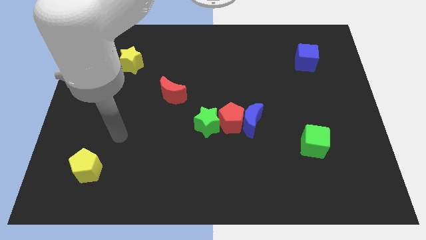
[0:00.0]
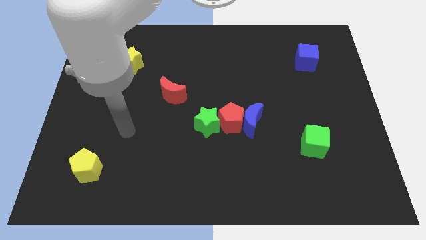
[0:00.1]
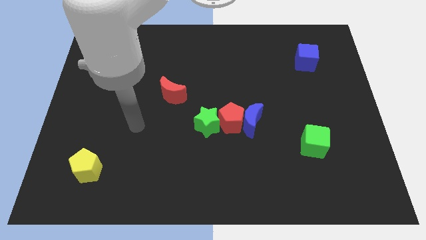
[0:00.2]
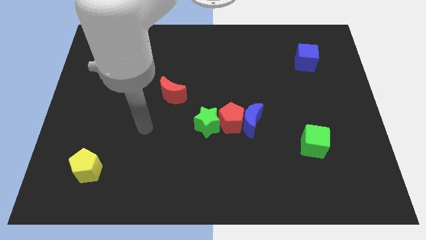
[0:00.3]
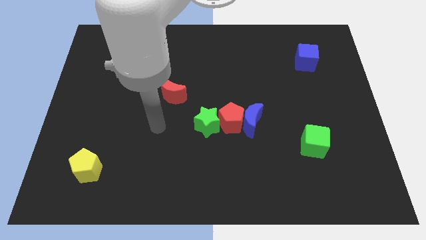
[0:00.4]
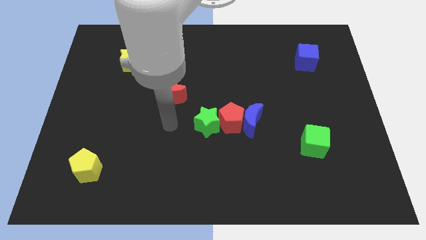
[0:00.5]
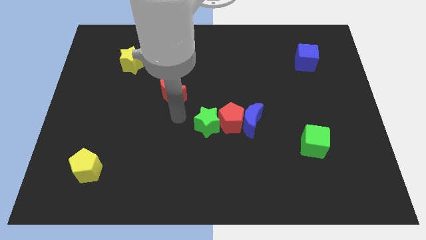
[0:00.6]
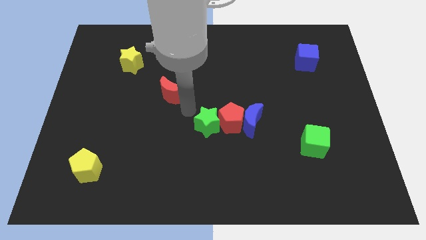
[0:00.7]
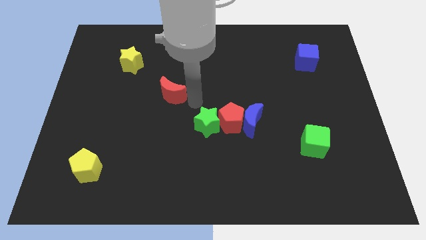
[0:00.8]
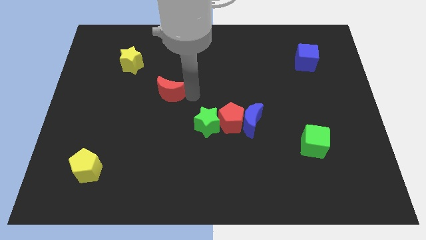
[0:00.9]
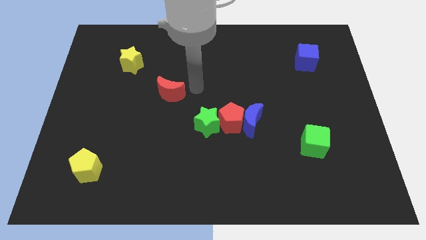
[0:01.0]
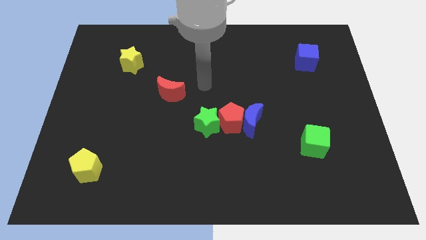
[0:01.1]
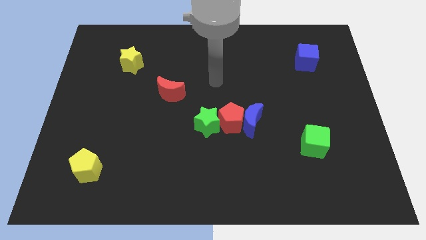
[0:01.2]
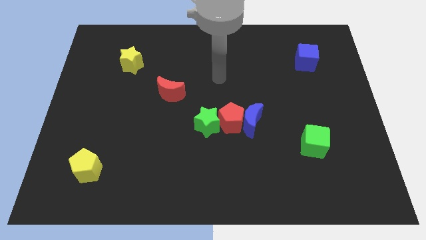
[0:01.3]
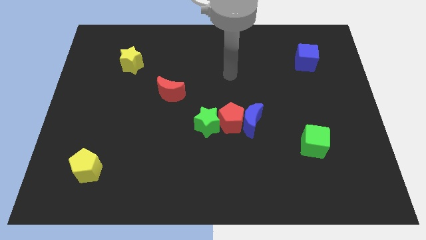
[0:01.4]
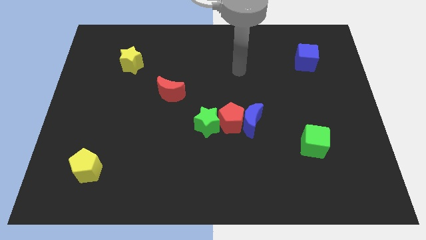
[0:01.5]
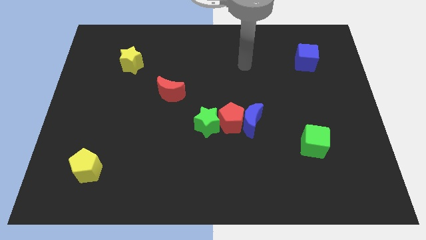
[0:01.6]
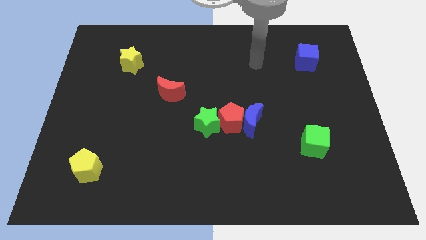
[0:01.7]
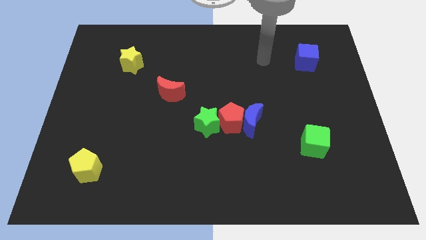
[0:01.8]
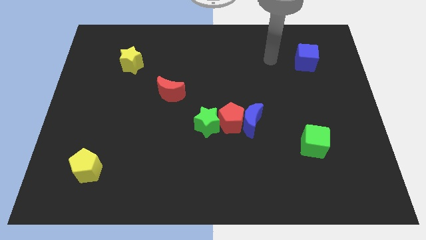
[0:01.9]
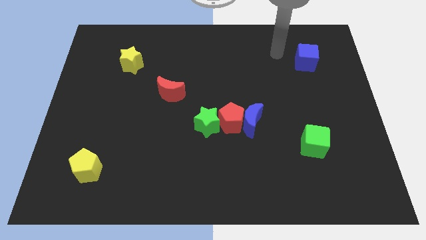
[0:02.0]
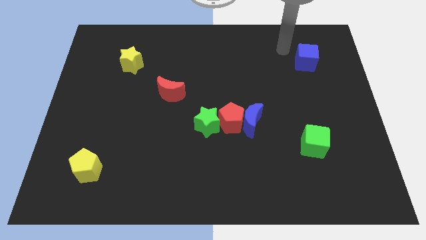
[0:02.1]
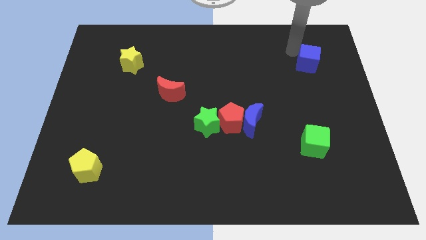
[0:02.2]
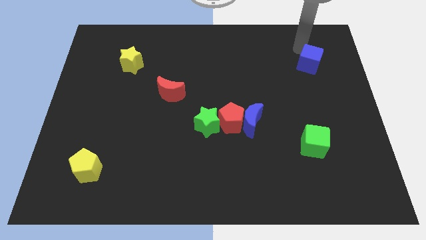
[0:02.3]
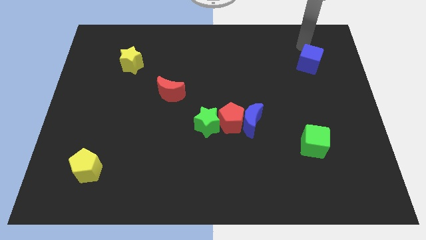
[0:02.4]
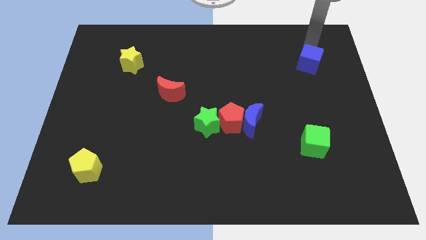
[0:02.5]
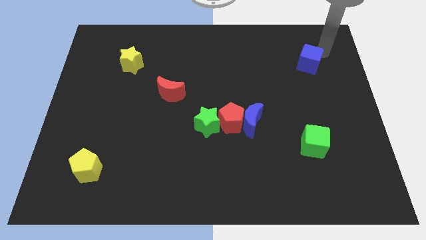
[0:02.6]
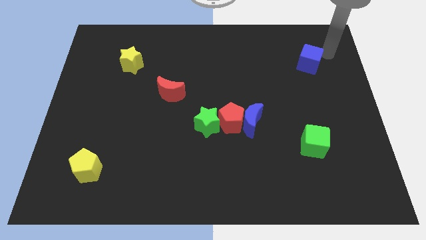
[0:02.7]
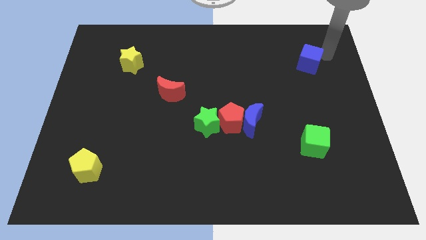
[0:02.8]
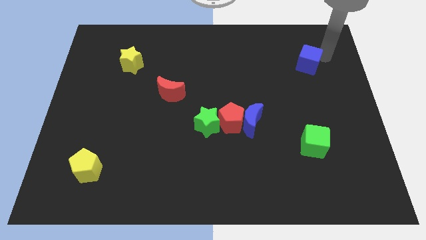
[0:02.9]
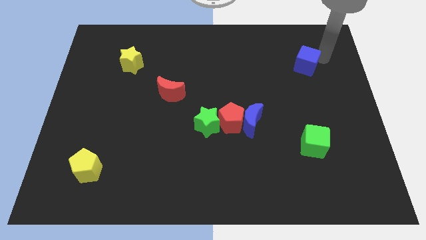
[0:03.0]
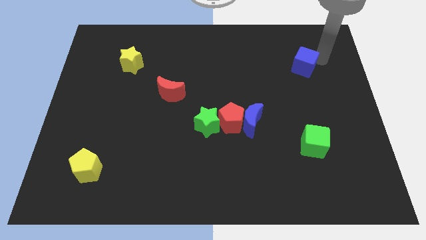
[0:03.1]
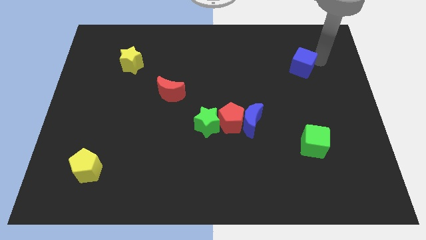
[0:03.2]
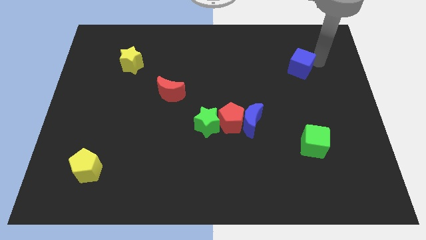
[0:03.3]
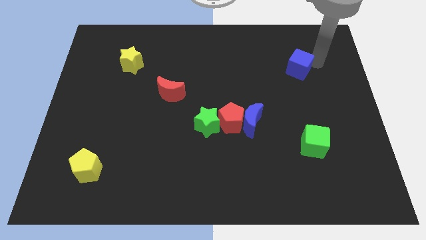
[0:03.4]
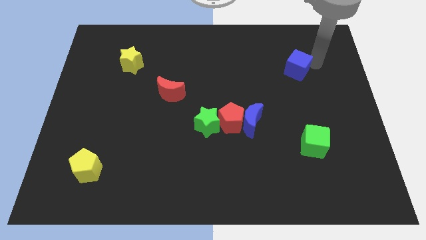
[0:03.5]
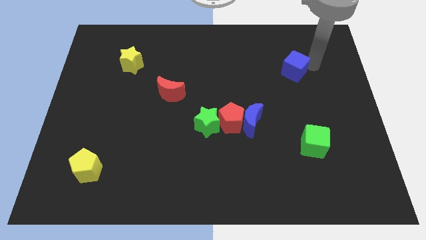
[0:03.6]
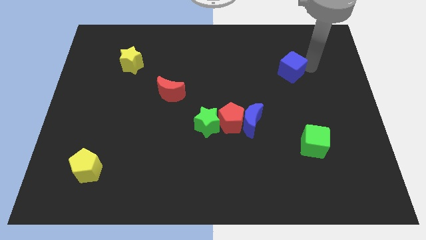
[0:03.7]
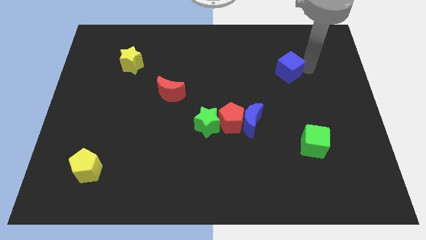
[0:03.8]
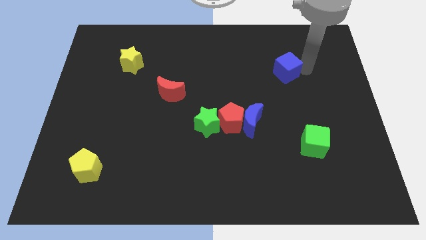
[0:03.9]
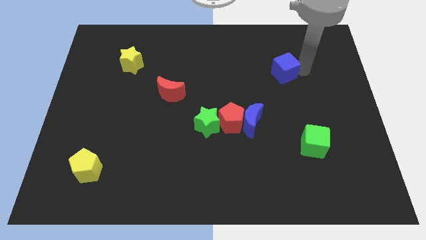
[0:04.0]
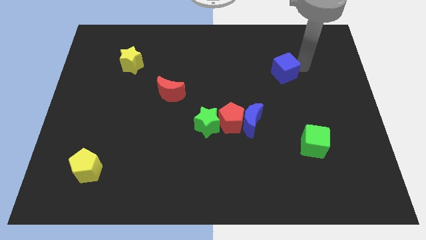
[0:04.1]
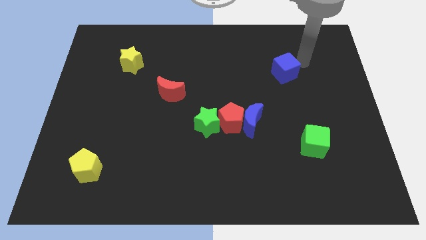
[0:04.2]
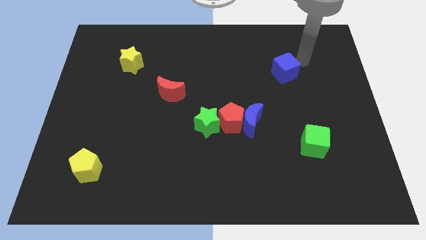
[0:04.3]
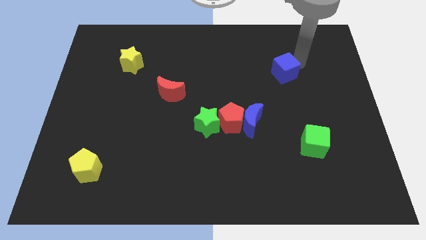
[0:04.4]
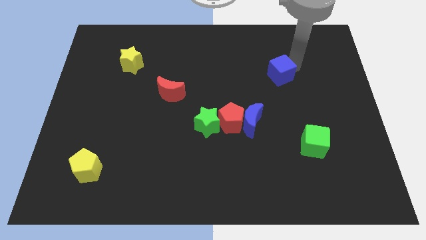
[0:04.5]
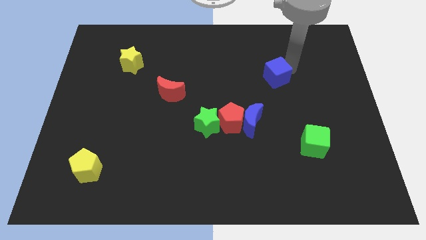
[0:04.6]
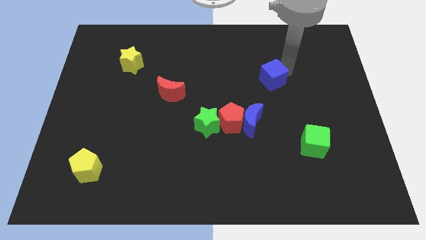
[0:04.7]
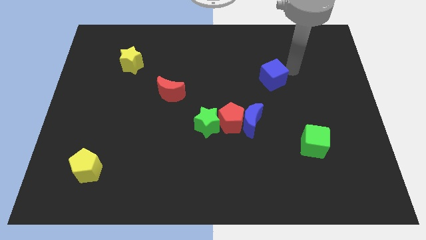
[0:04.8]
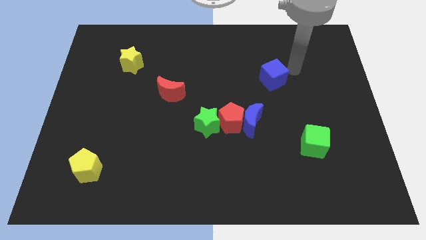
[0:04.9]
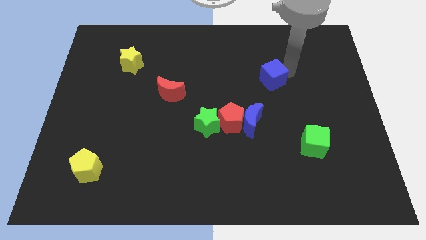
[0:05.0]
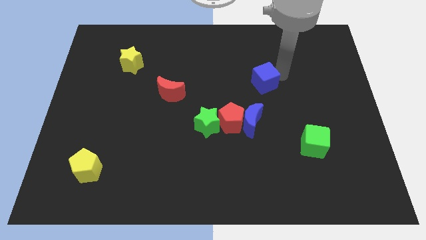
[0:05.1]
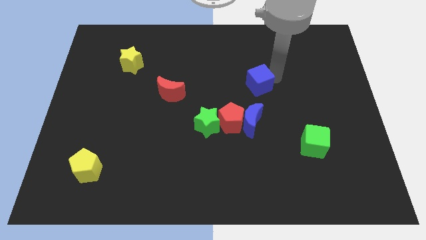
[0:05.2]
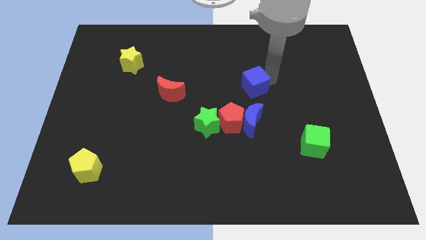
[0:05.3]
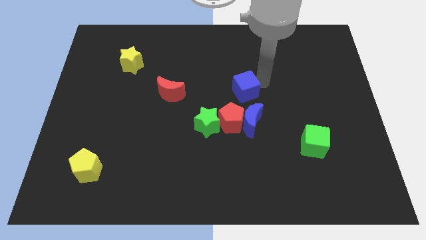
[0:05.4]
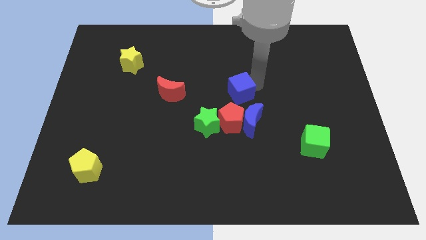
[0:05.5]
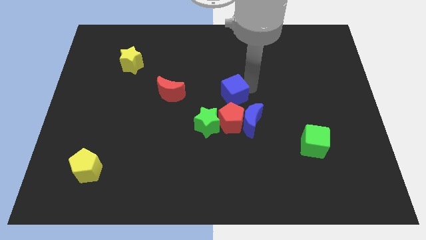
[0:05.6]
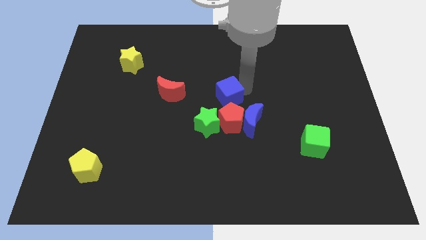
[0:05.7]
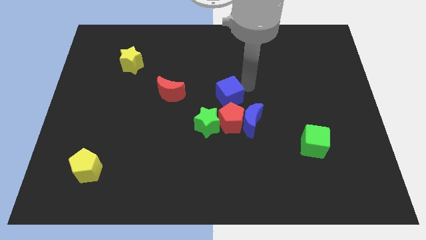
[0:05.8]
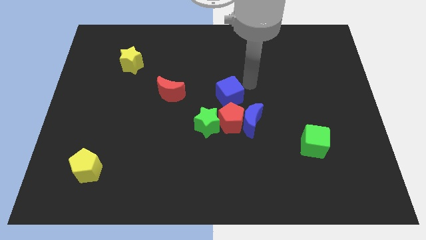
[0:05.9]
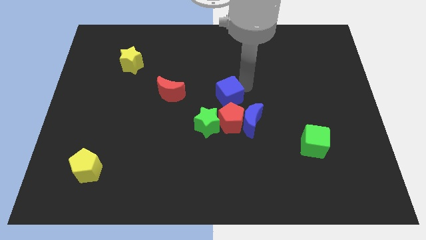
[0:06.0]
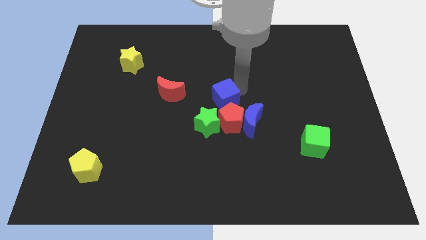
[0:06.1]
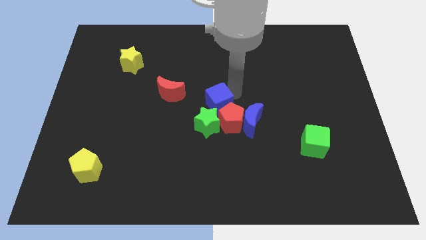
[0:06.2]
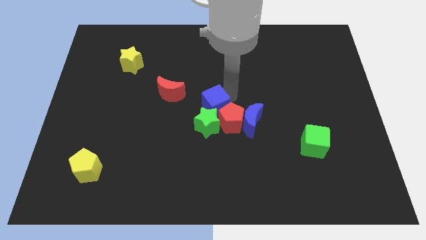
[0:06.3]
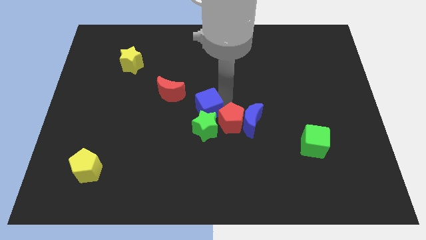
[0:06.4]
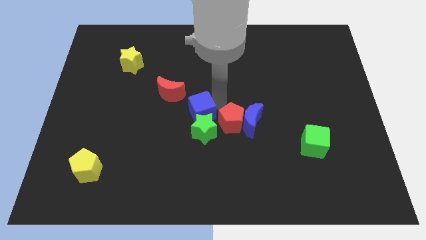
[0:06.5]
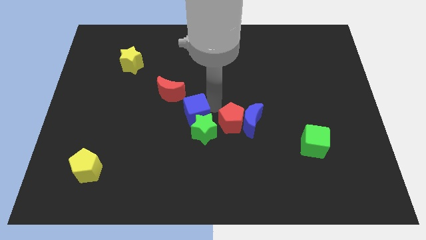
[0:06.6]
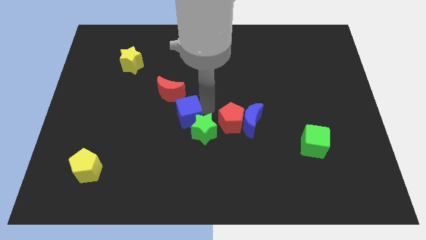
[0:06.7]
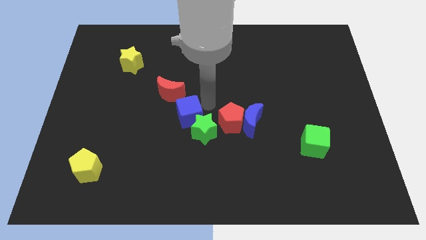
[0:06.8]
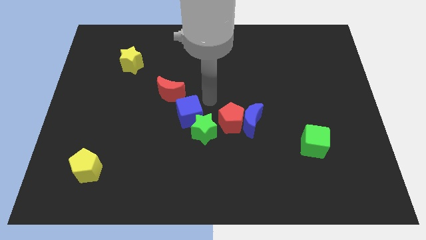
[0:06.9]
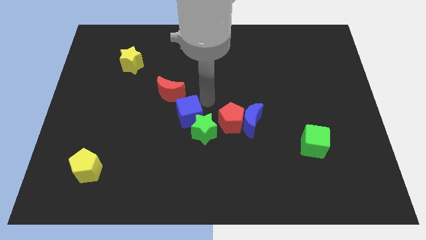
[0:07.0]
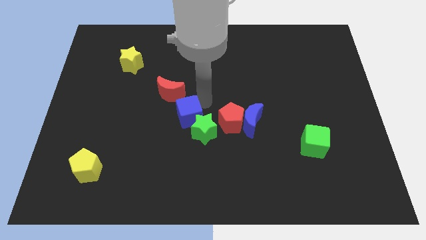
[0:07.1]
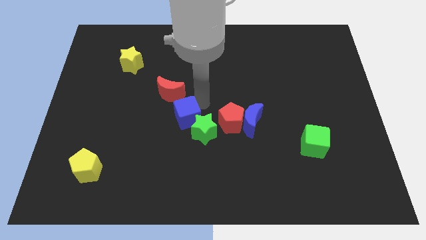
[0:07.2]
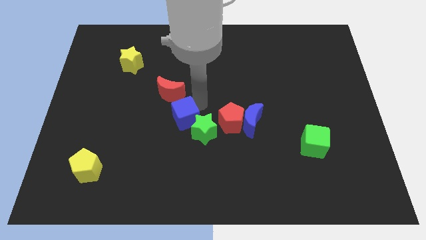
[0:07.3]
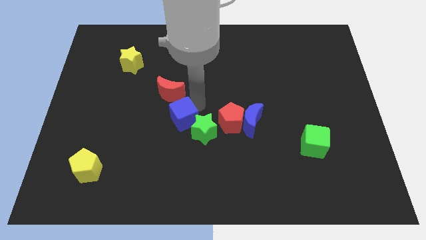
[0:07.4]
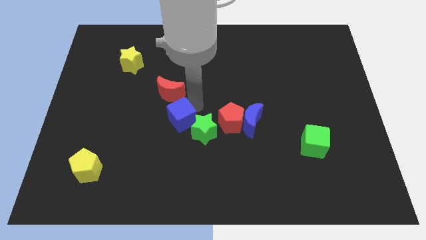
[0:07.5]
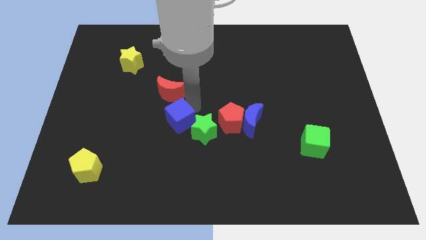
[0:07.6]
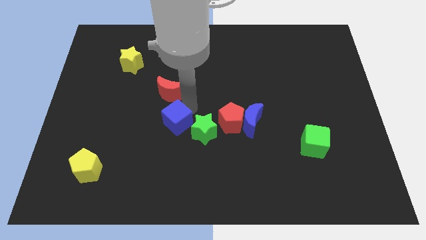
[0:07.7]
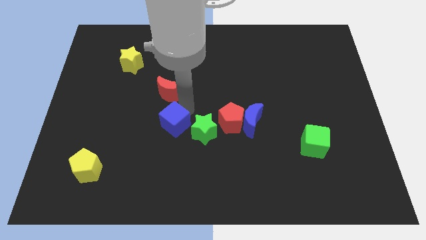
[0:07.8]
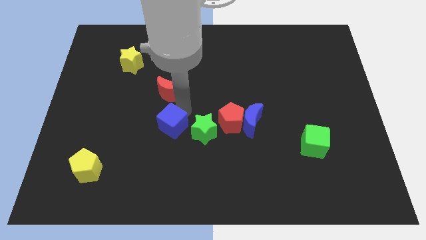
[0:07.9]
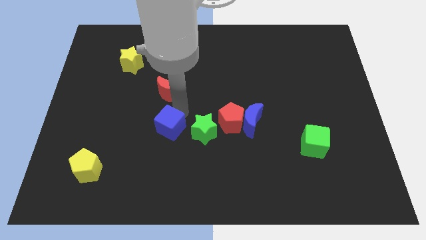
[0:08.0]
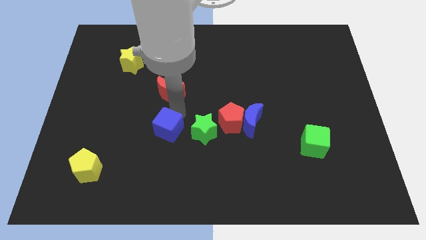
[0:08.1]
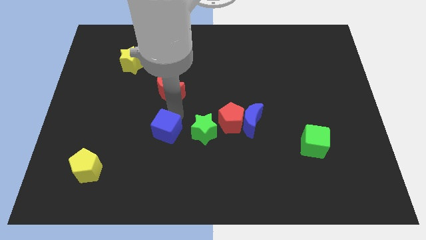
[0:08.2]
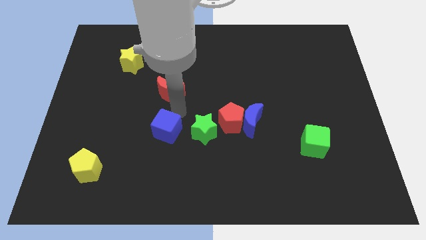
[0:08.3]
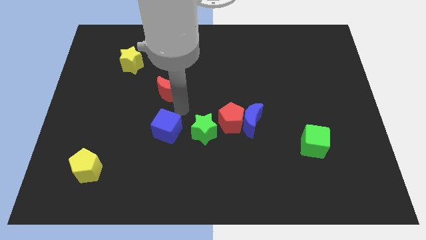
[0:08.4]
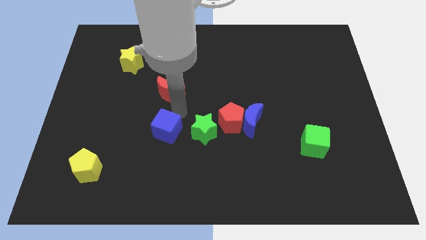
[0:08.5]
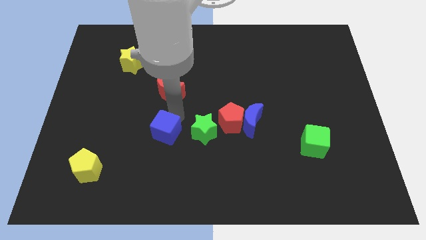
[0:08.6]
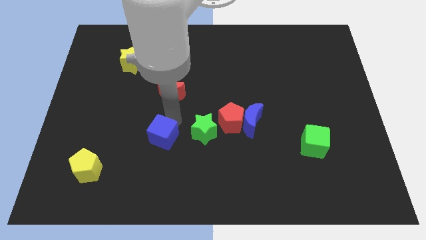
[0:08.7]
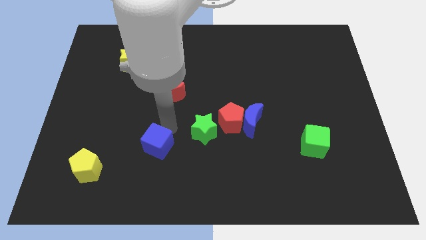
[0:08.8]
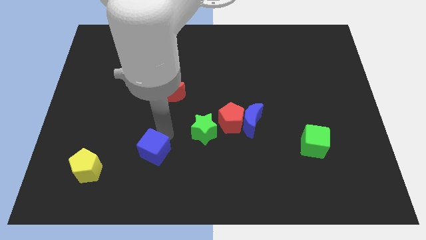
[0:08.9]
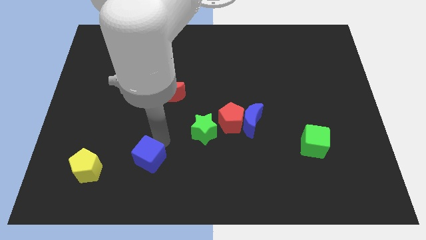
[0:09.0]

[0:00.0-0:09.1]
push the blue cube to the right of the yellow pentagon
